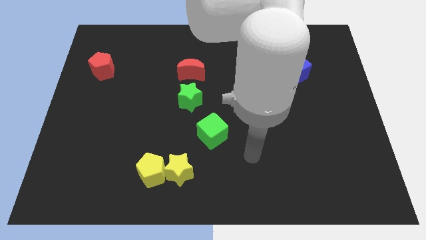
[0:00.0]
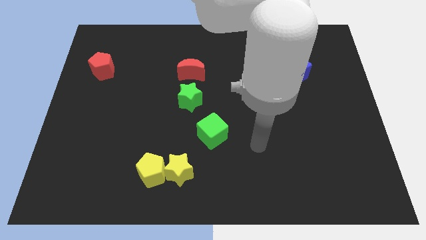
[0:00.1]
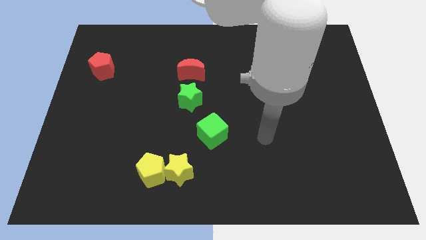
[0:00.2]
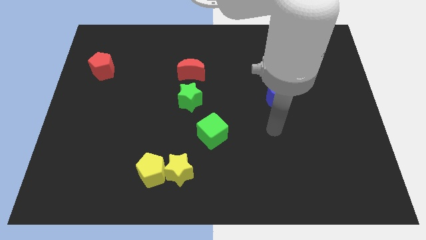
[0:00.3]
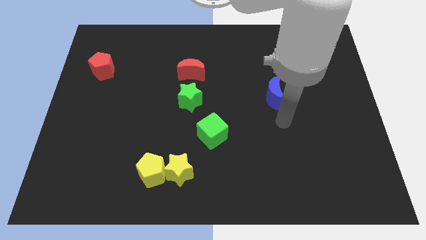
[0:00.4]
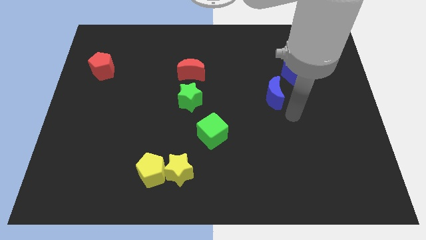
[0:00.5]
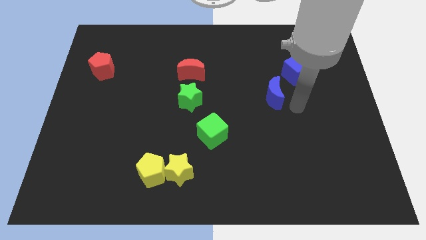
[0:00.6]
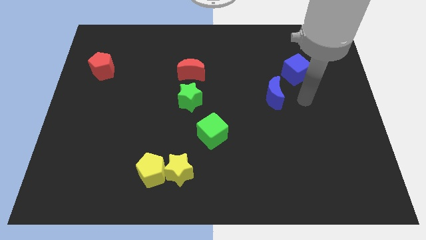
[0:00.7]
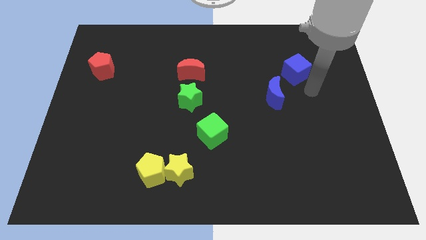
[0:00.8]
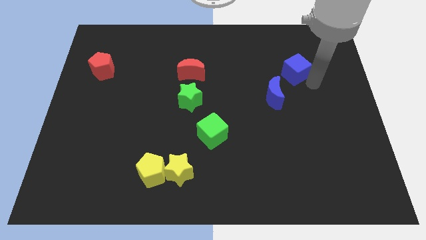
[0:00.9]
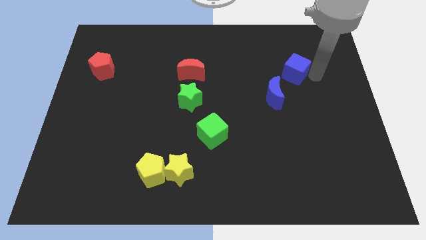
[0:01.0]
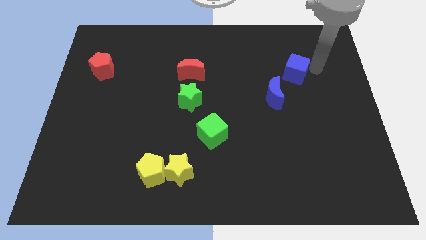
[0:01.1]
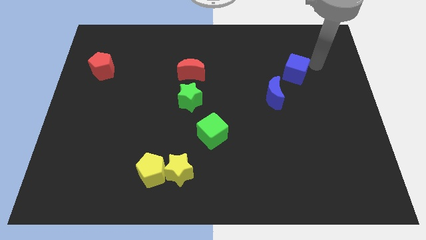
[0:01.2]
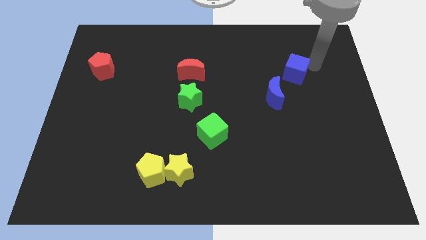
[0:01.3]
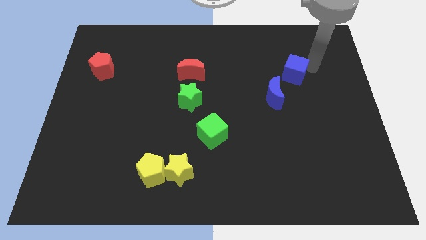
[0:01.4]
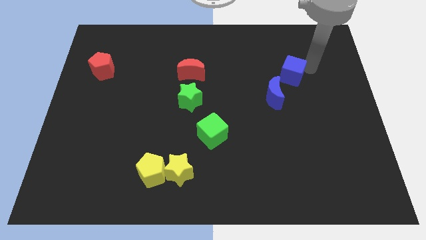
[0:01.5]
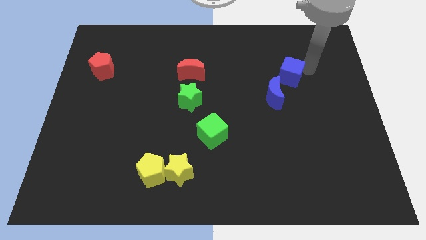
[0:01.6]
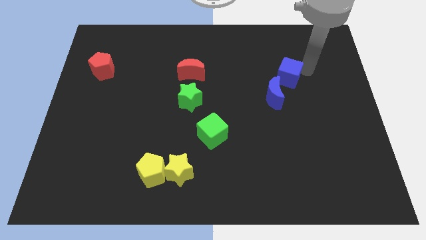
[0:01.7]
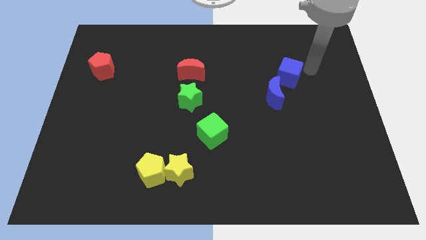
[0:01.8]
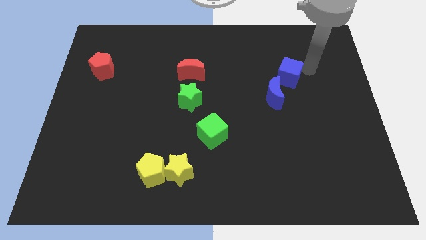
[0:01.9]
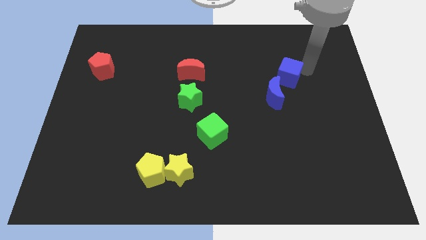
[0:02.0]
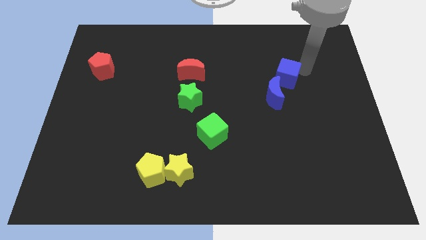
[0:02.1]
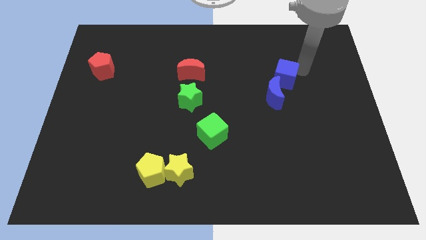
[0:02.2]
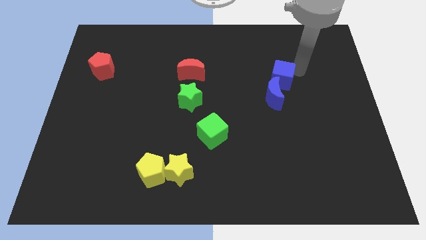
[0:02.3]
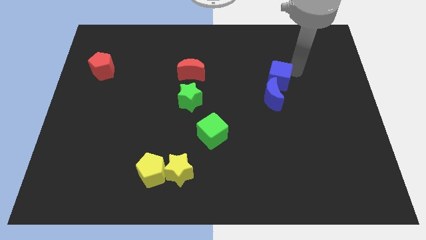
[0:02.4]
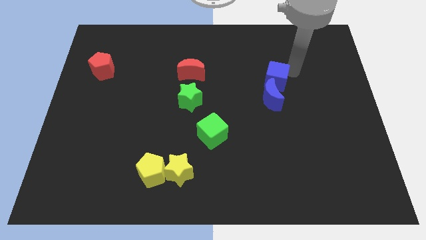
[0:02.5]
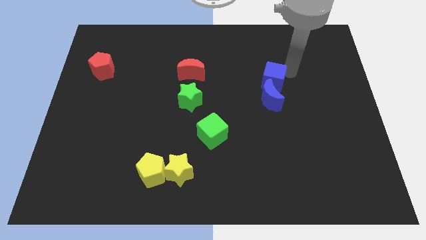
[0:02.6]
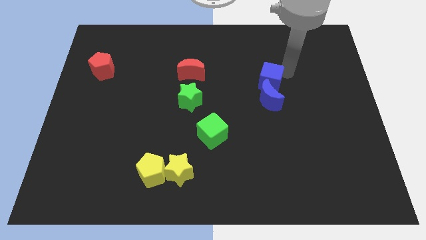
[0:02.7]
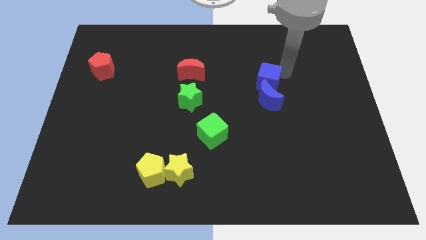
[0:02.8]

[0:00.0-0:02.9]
slightly slide the blue cube to the left

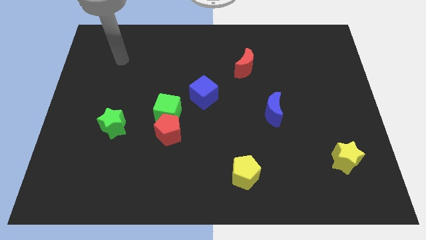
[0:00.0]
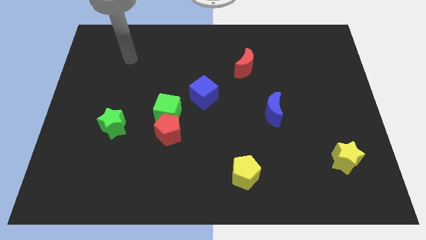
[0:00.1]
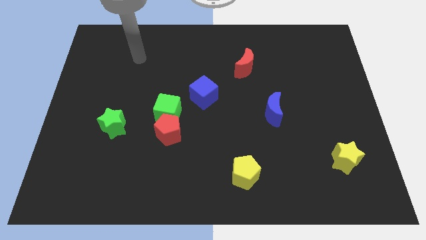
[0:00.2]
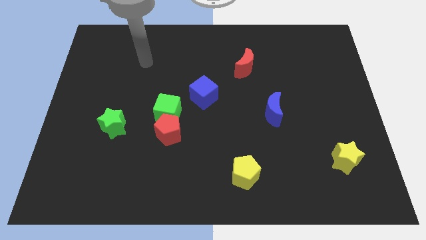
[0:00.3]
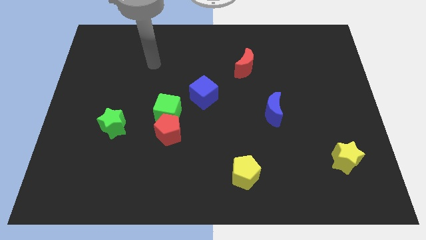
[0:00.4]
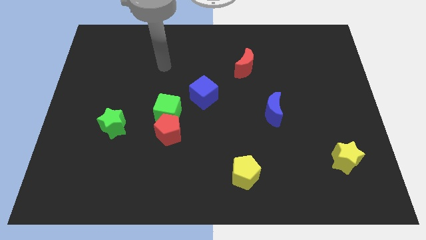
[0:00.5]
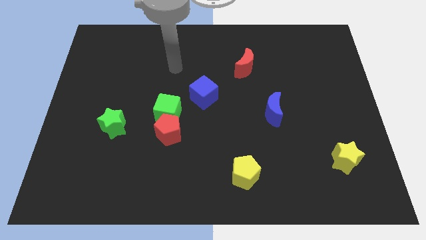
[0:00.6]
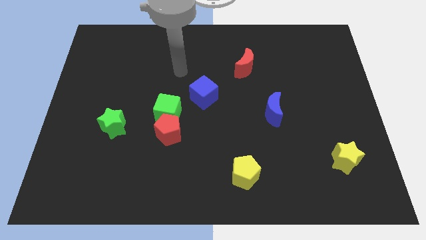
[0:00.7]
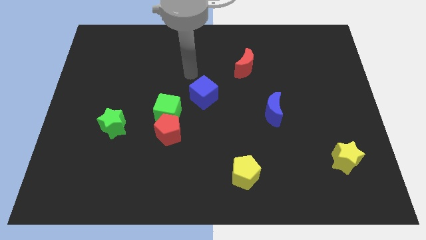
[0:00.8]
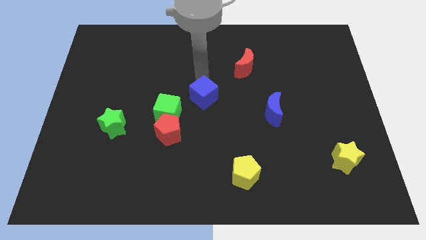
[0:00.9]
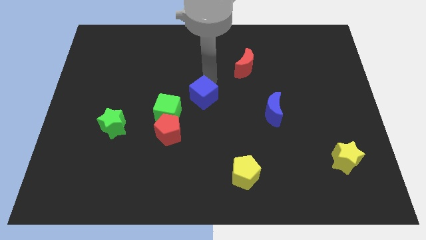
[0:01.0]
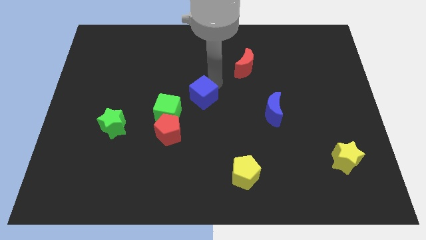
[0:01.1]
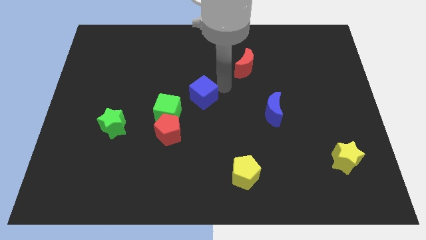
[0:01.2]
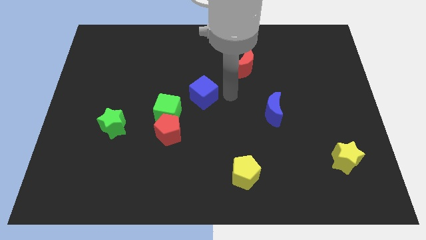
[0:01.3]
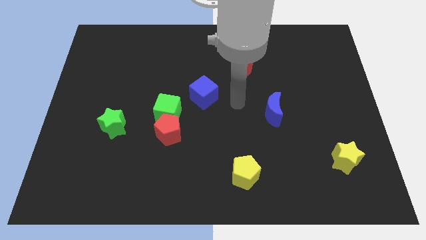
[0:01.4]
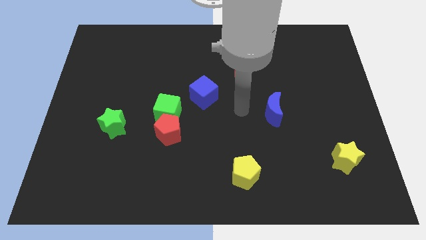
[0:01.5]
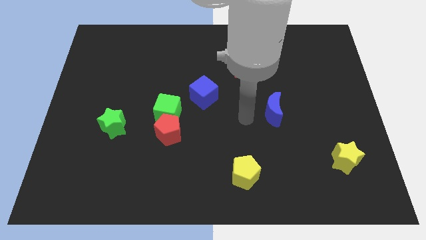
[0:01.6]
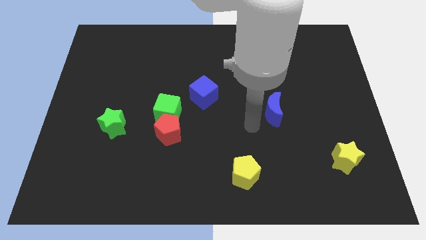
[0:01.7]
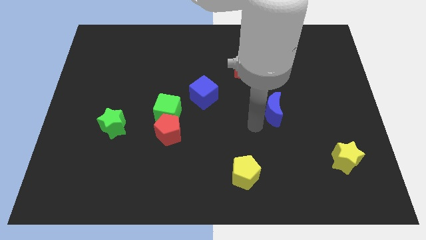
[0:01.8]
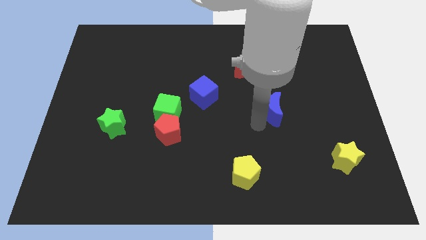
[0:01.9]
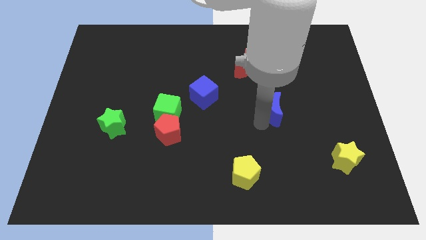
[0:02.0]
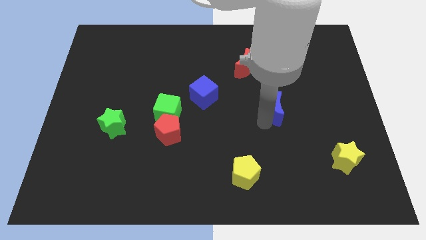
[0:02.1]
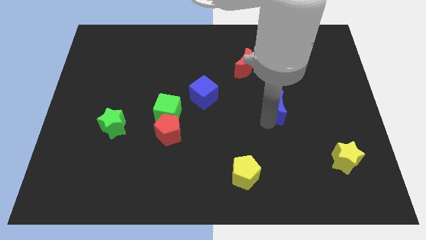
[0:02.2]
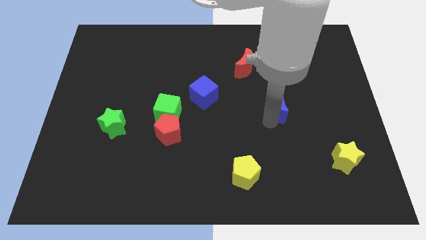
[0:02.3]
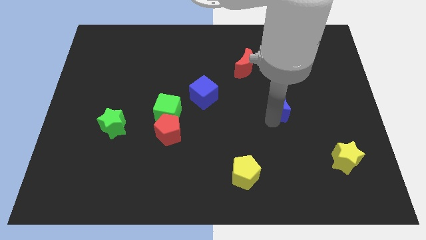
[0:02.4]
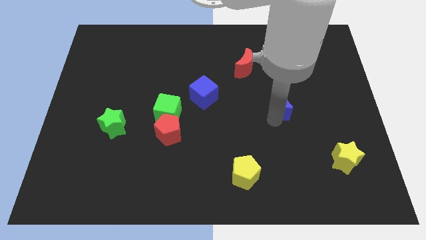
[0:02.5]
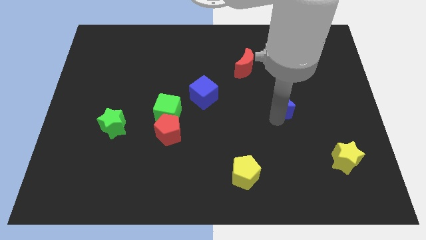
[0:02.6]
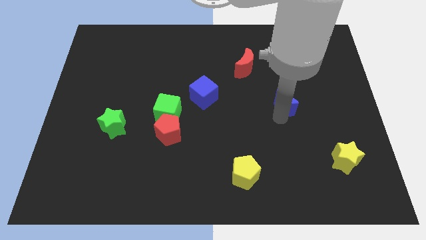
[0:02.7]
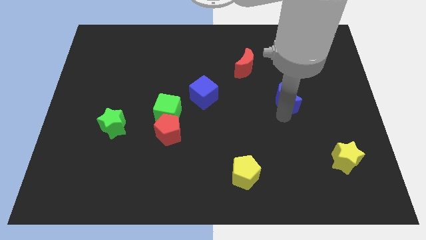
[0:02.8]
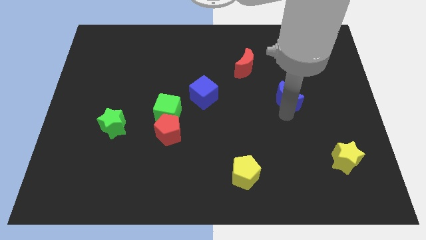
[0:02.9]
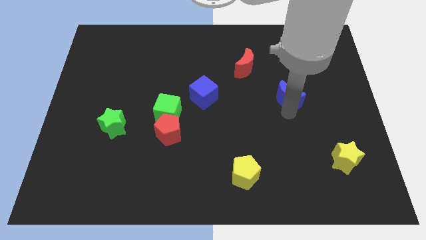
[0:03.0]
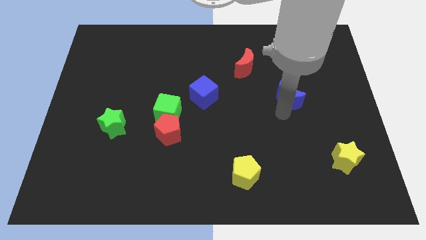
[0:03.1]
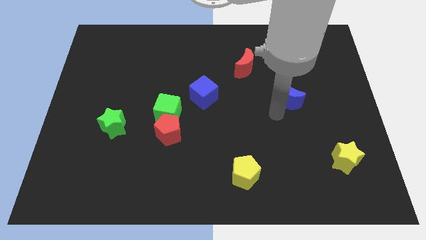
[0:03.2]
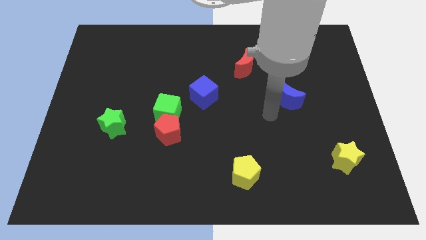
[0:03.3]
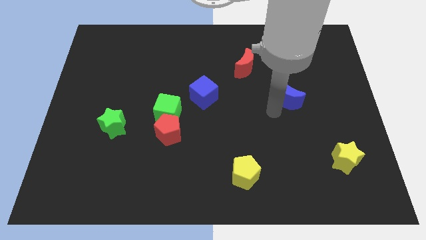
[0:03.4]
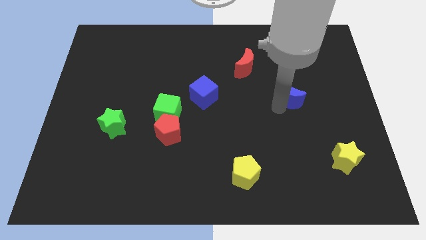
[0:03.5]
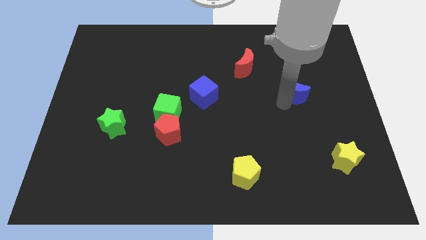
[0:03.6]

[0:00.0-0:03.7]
slightly slide the blue moon diagonally up and right

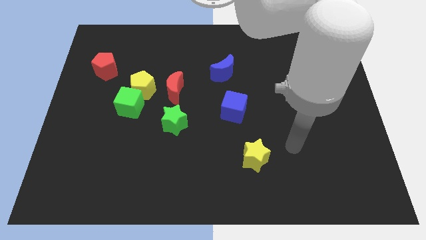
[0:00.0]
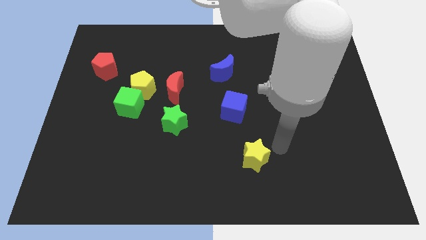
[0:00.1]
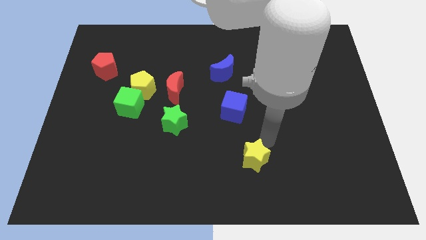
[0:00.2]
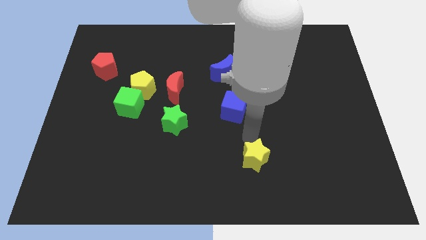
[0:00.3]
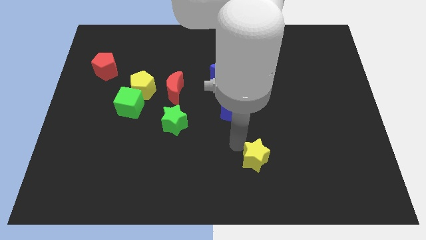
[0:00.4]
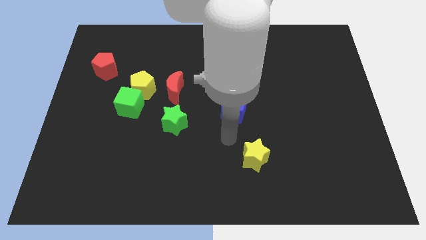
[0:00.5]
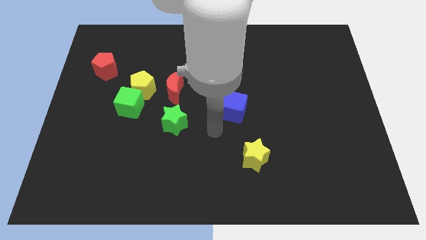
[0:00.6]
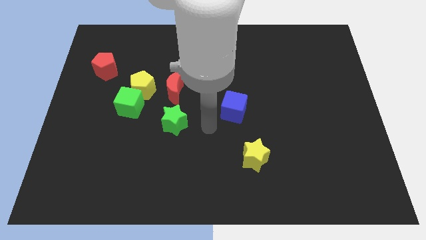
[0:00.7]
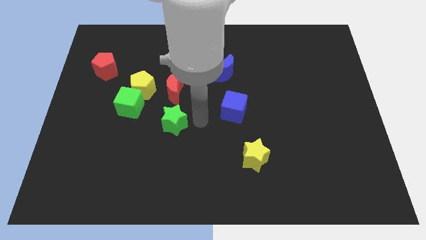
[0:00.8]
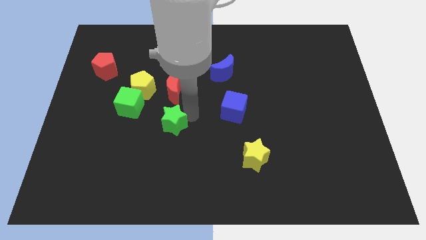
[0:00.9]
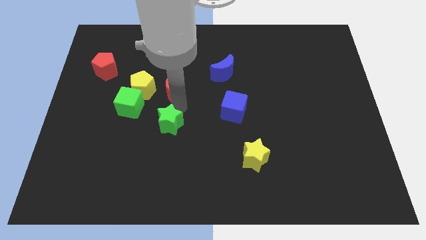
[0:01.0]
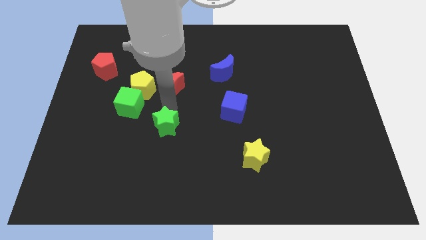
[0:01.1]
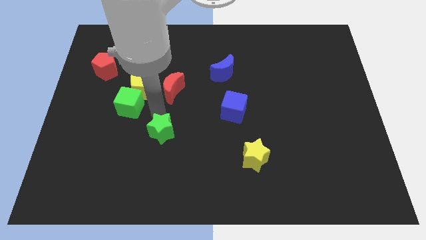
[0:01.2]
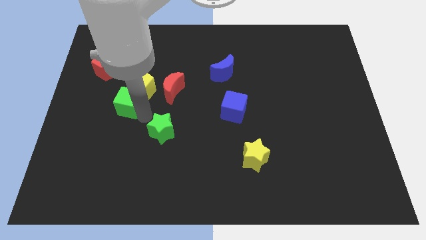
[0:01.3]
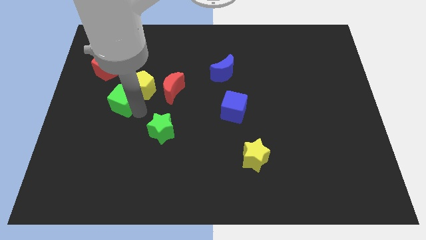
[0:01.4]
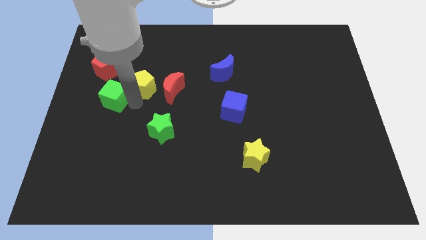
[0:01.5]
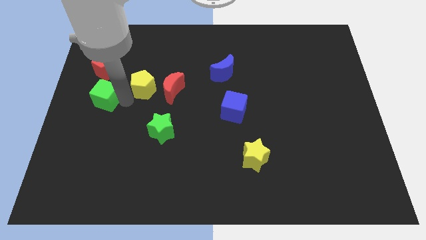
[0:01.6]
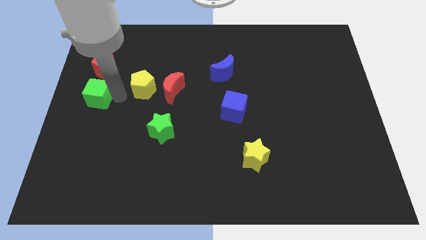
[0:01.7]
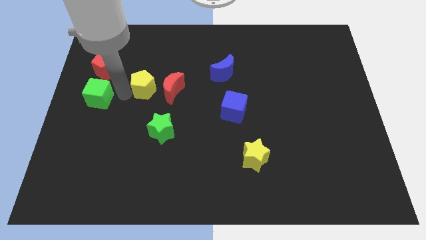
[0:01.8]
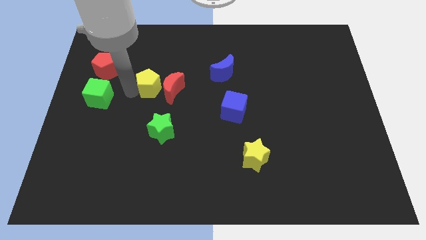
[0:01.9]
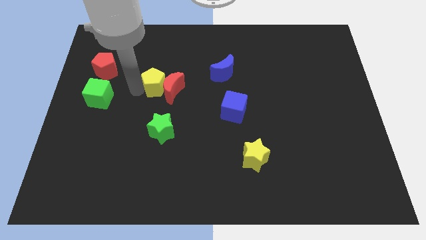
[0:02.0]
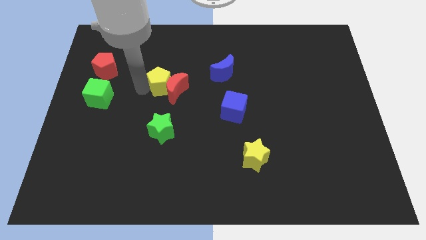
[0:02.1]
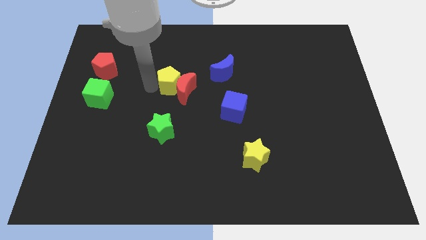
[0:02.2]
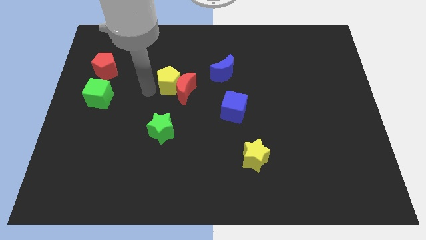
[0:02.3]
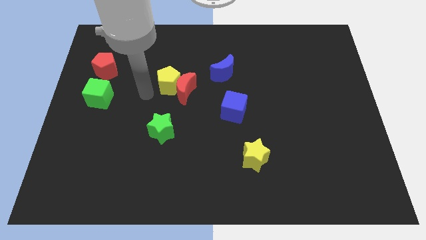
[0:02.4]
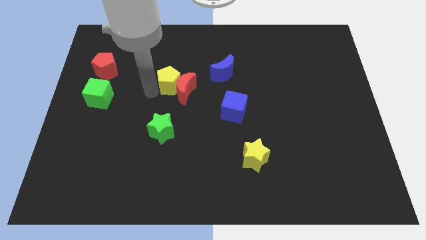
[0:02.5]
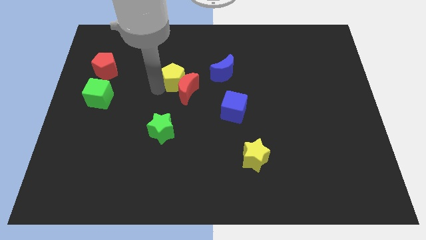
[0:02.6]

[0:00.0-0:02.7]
move the yellow pentagon right a bit
